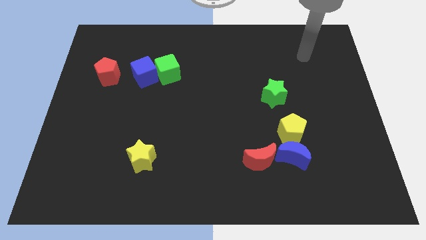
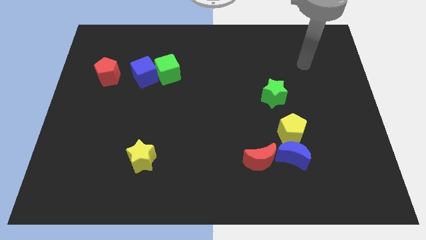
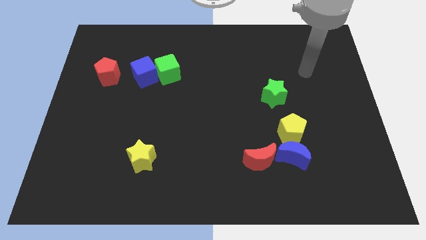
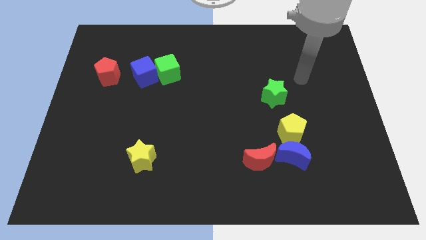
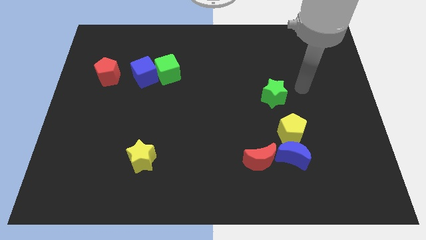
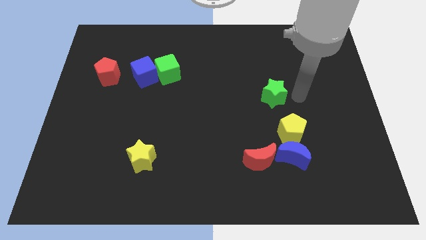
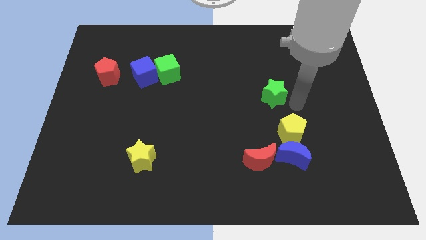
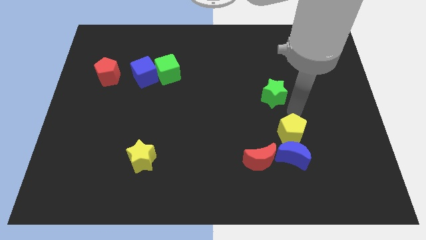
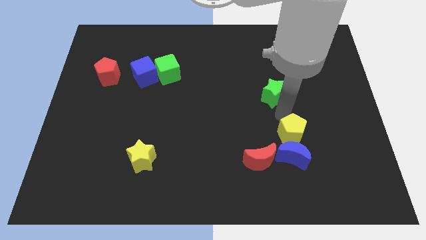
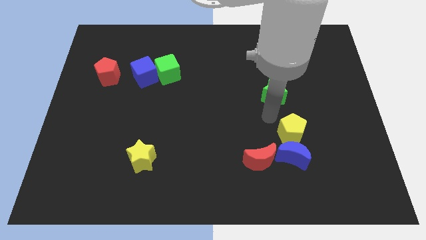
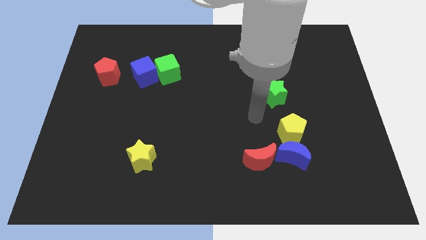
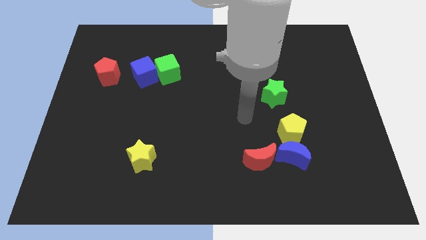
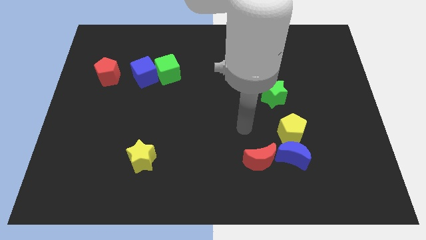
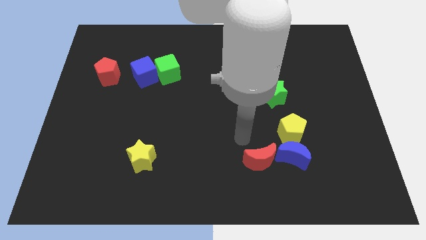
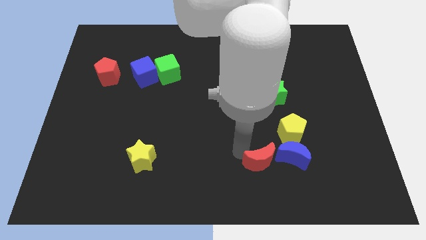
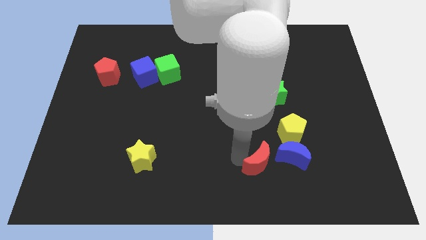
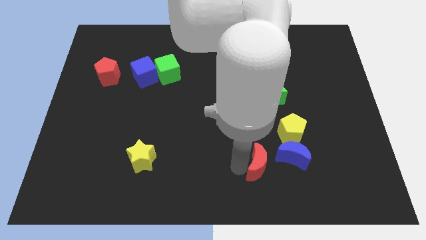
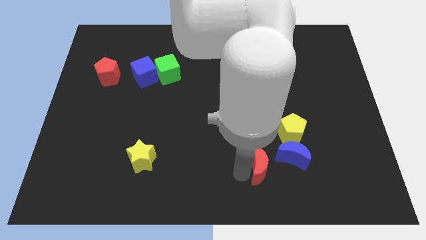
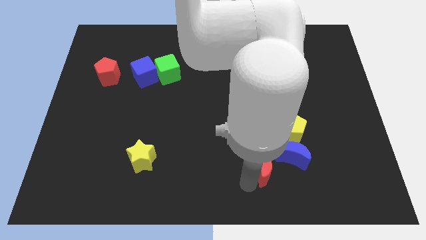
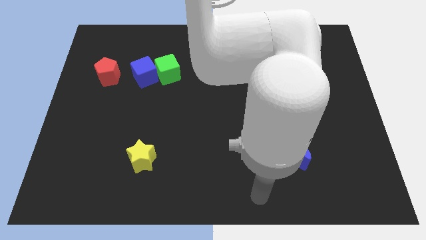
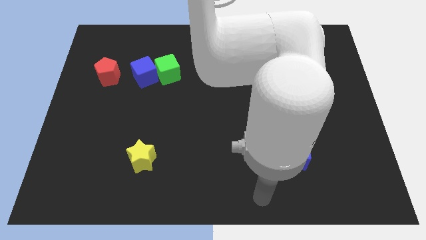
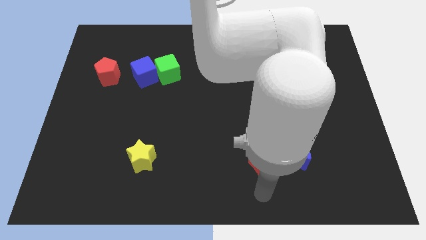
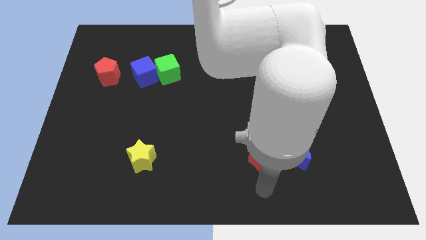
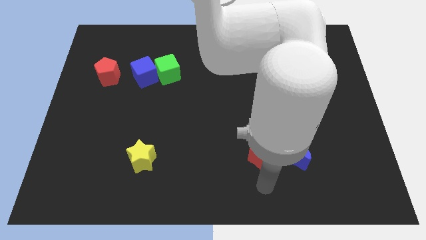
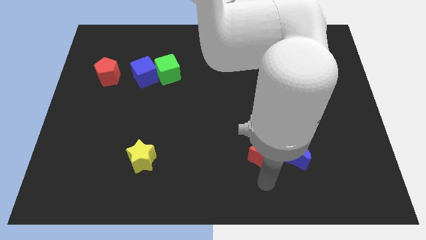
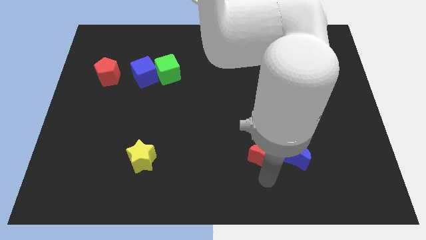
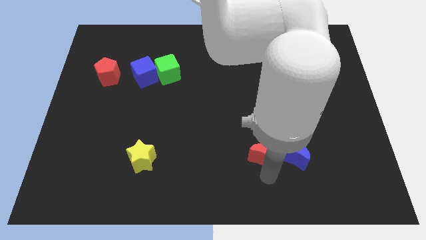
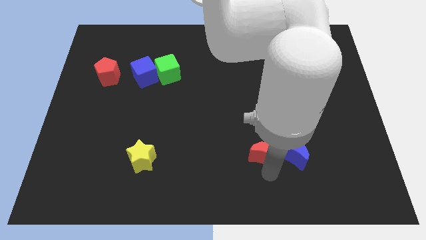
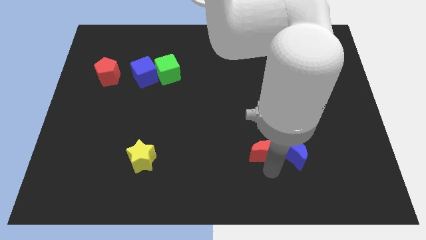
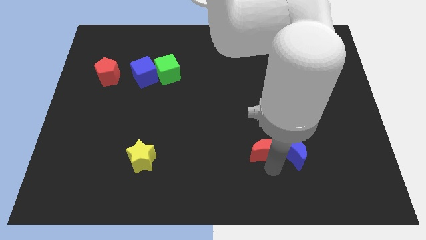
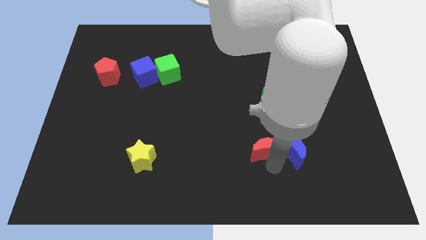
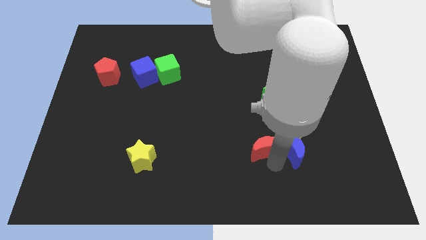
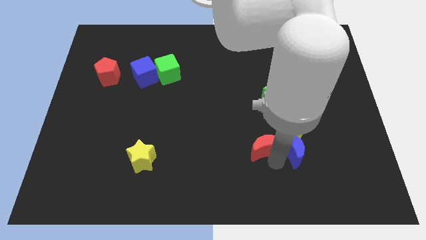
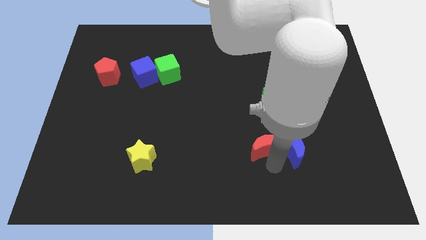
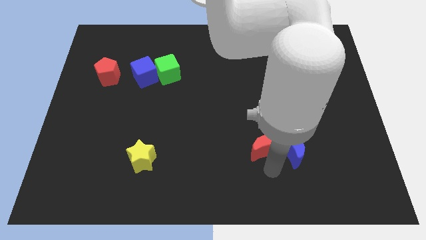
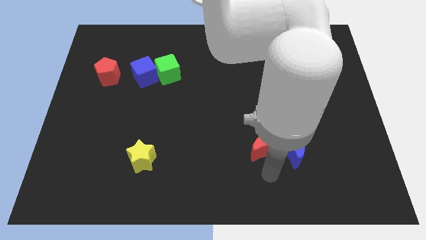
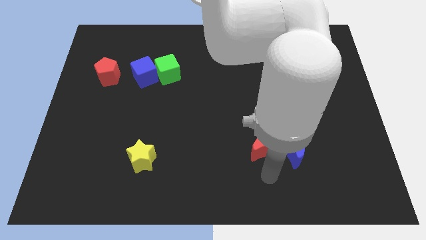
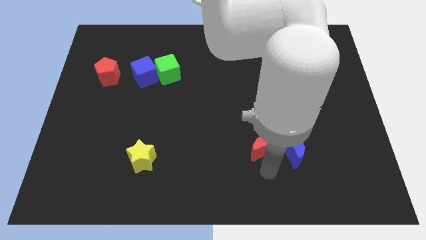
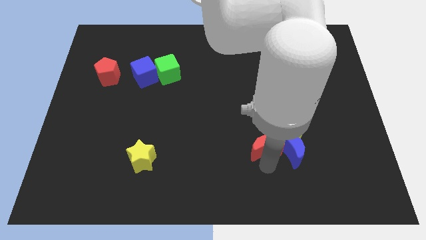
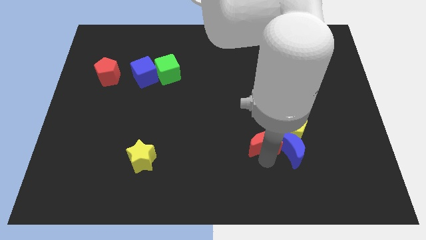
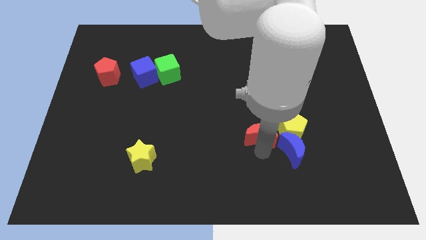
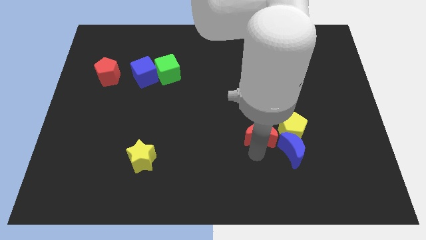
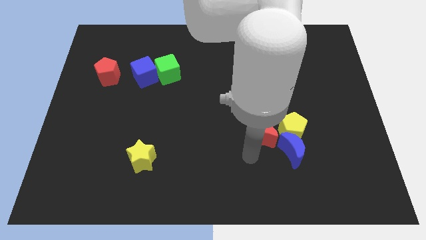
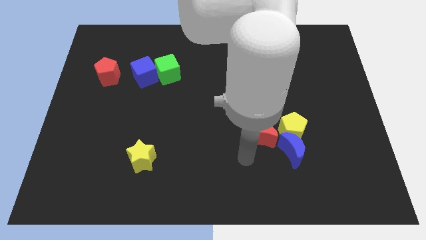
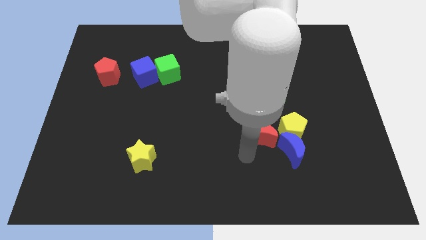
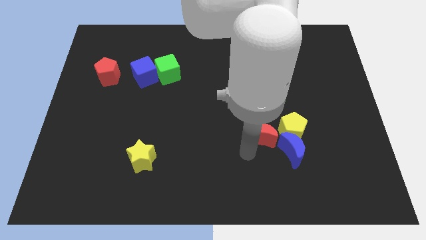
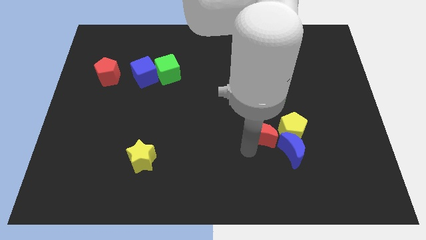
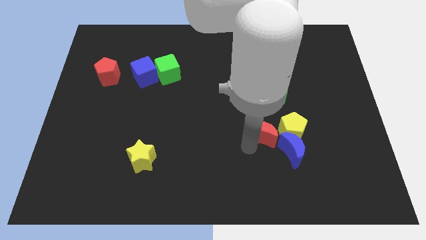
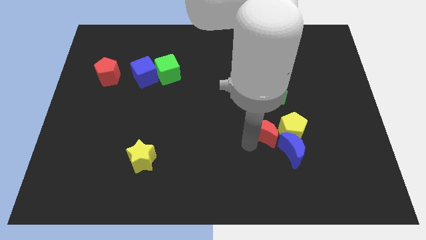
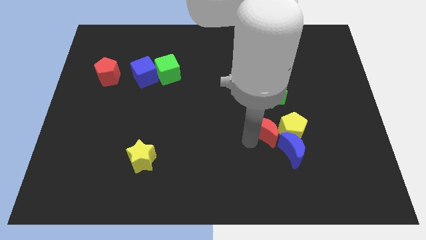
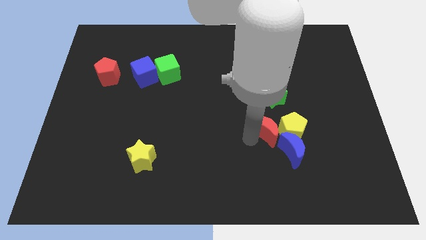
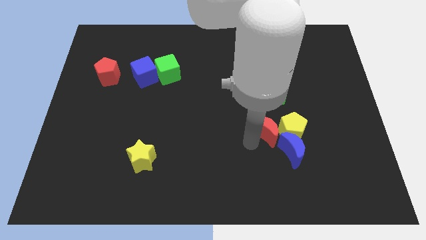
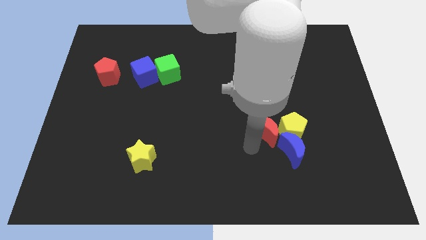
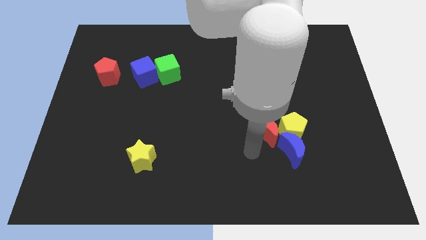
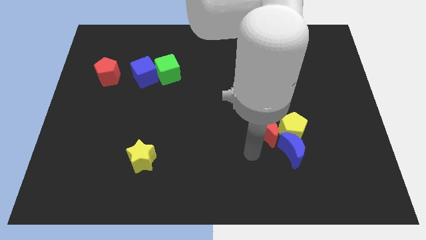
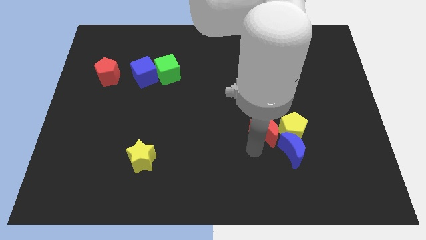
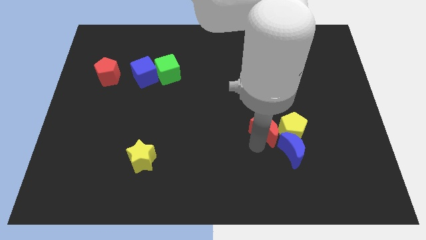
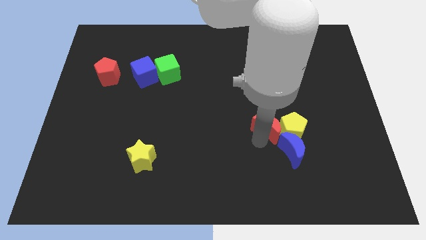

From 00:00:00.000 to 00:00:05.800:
slide the red moon upwards and to the right somewhat

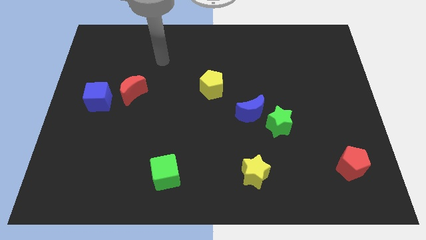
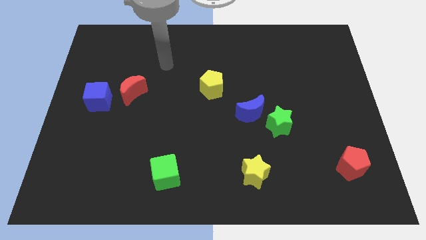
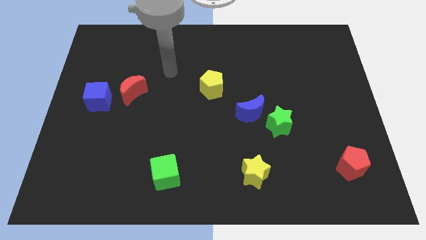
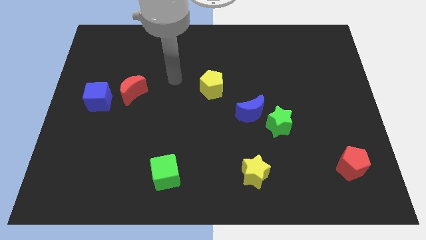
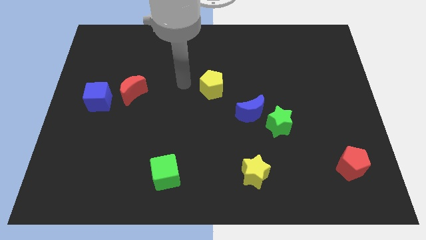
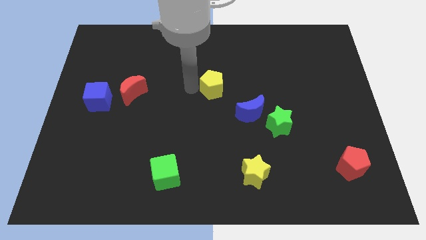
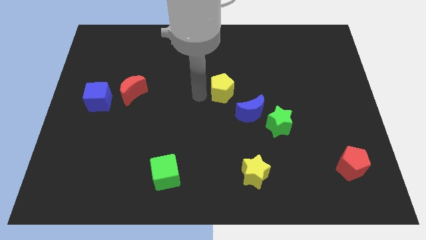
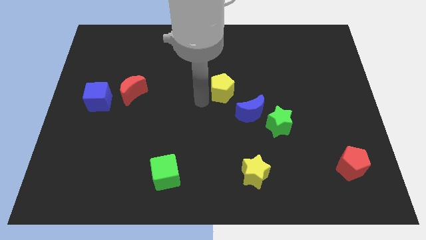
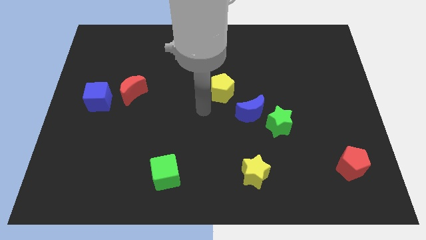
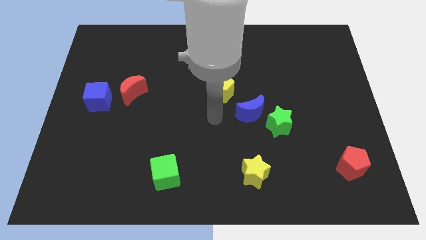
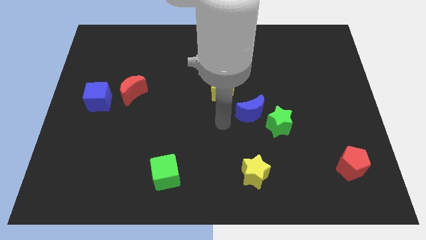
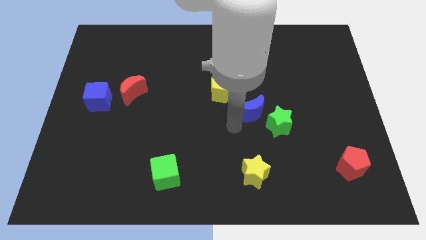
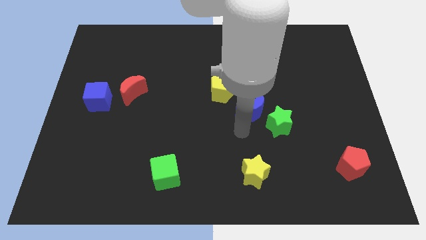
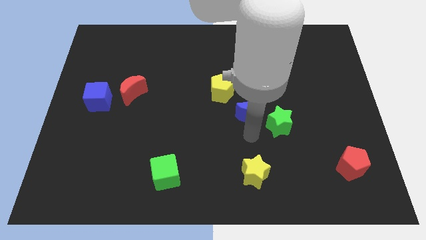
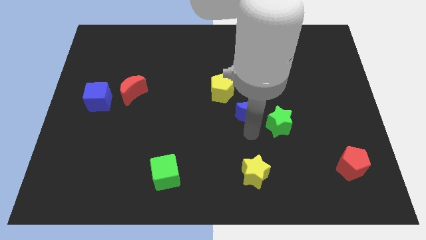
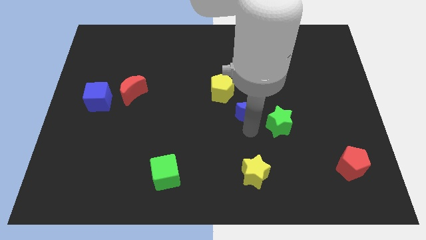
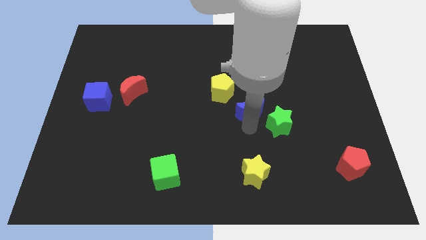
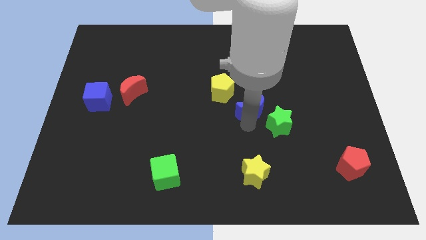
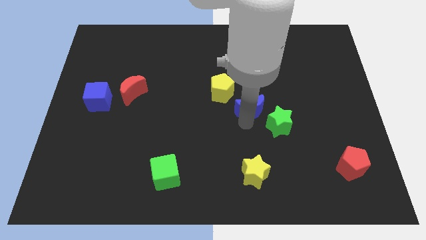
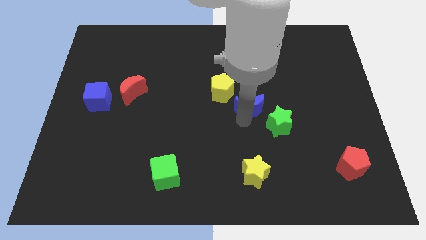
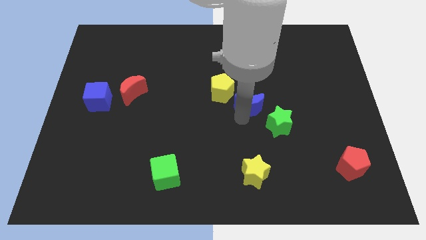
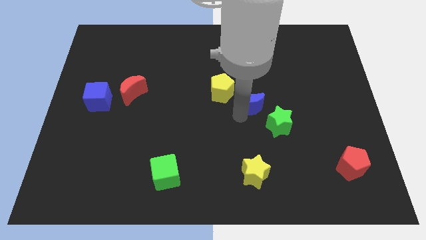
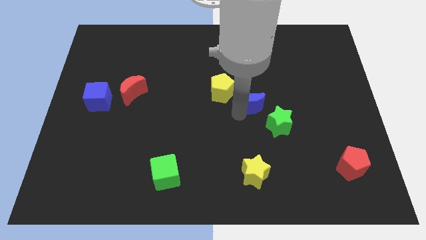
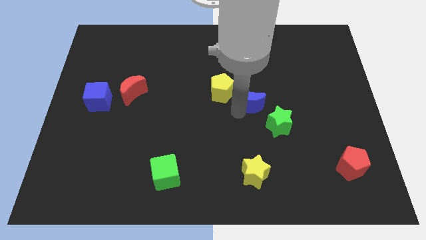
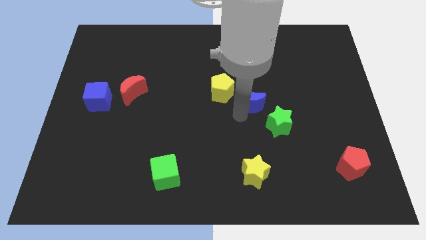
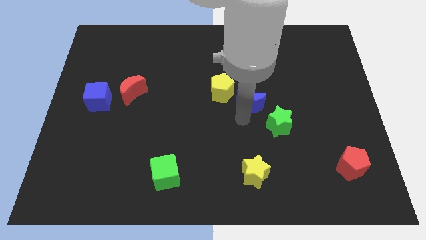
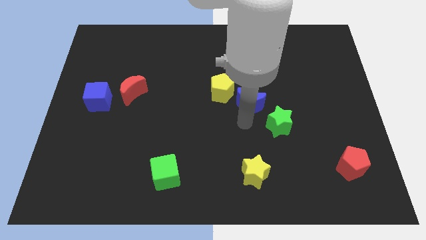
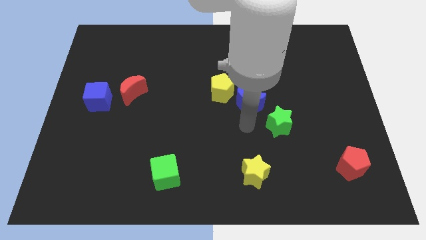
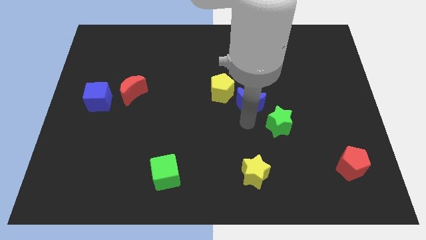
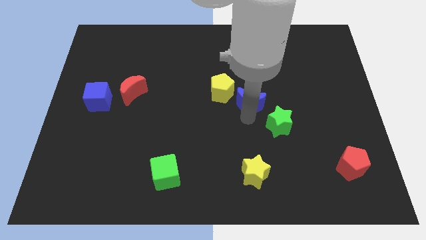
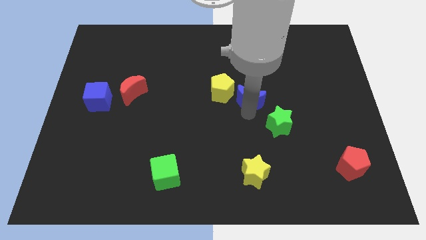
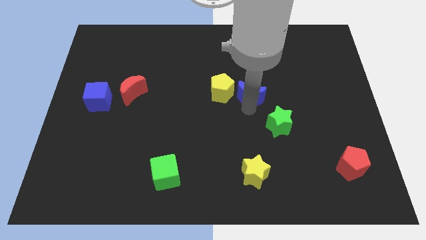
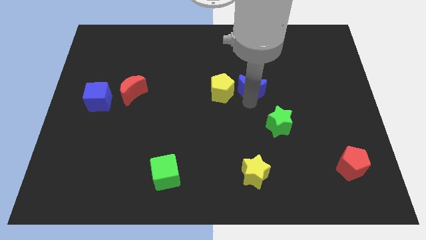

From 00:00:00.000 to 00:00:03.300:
slide the blue moon somewhat upwards
